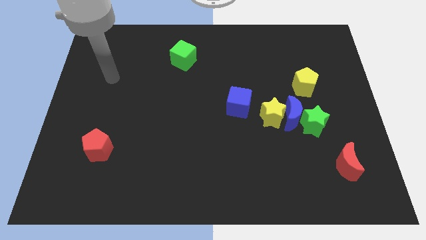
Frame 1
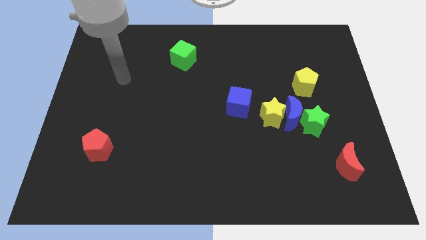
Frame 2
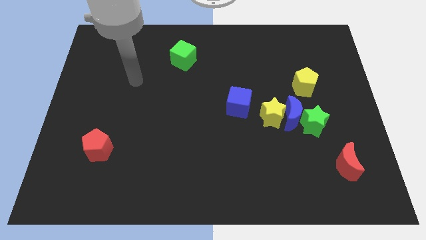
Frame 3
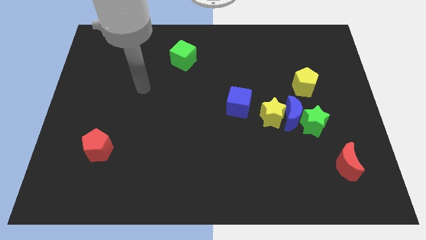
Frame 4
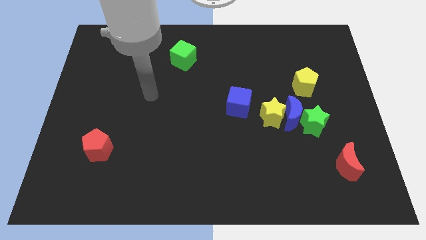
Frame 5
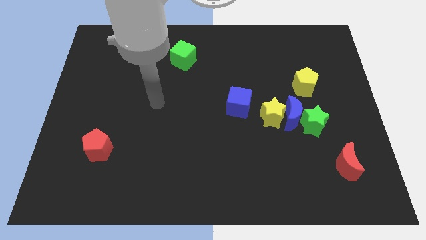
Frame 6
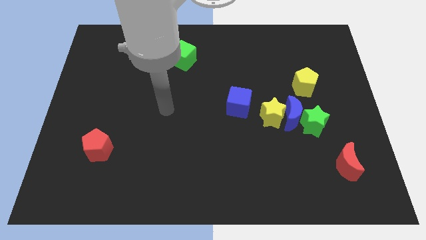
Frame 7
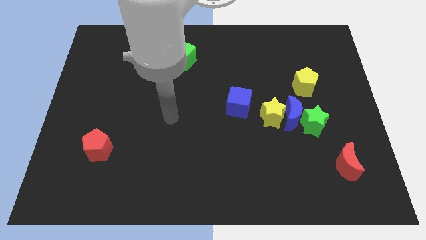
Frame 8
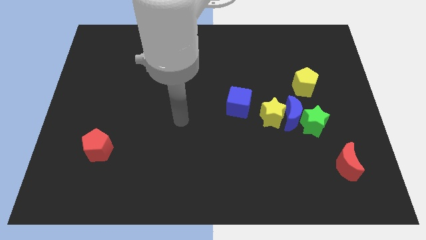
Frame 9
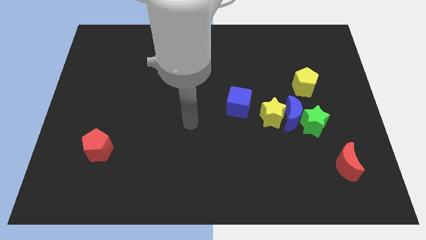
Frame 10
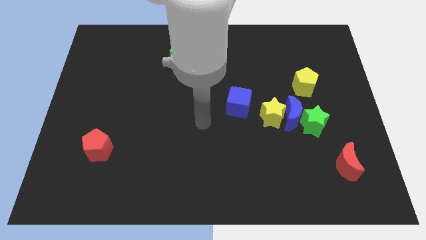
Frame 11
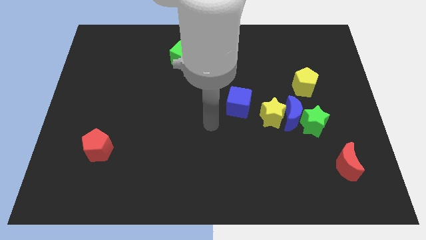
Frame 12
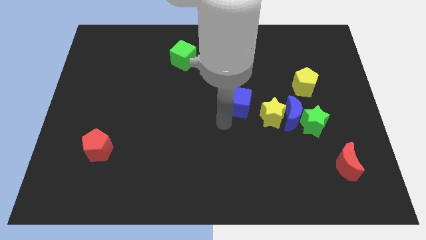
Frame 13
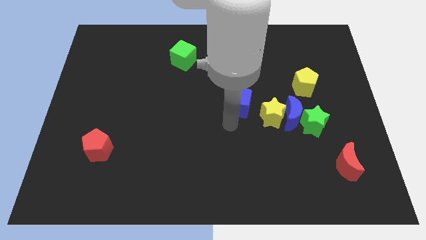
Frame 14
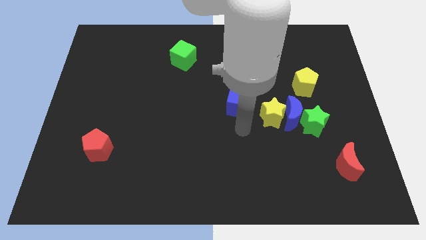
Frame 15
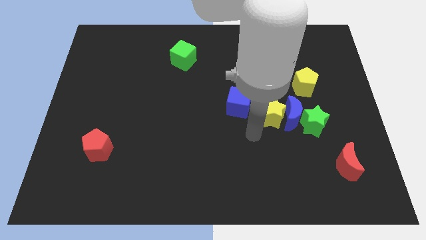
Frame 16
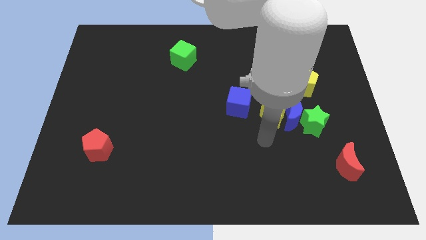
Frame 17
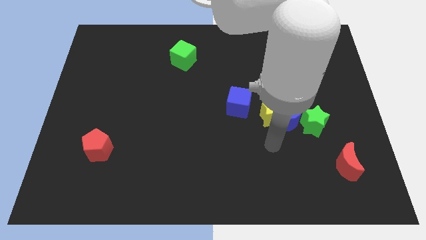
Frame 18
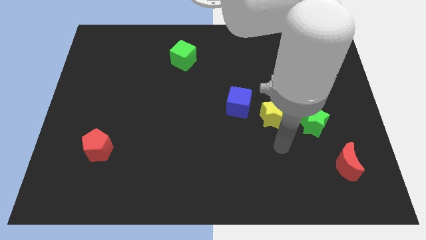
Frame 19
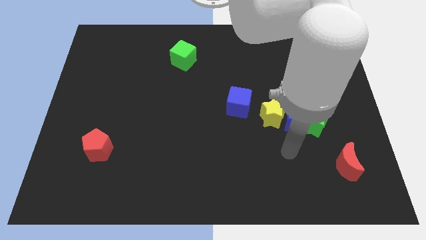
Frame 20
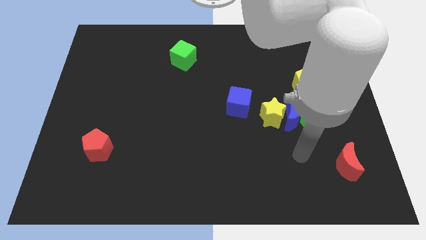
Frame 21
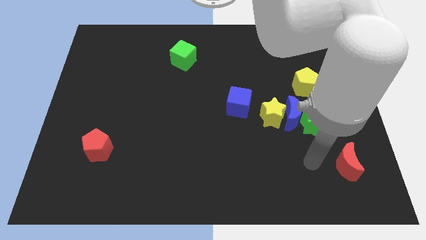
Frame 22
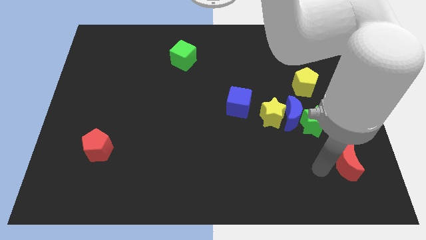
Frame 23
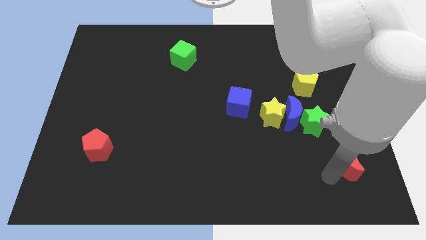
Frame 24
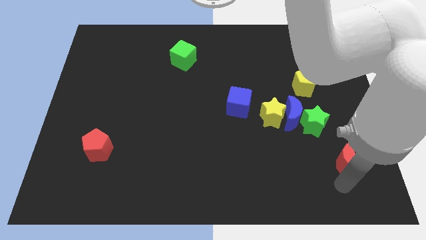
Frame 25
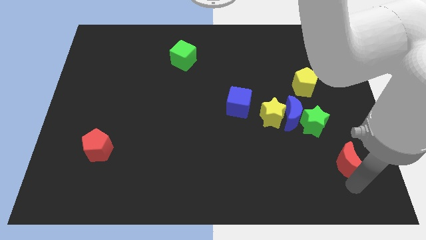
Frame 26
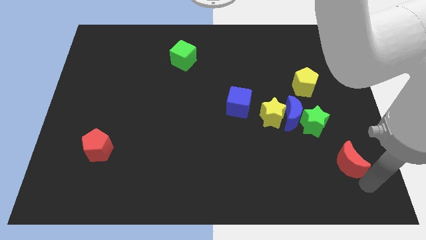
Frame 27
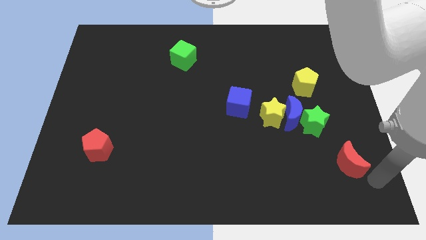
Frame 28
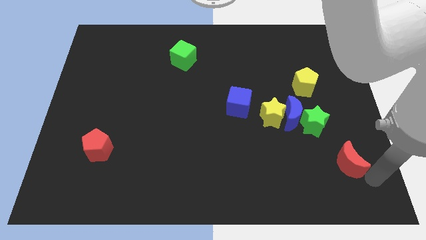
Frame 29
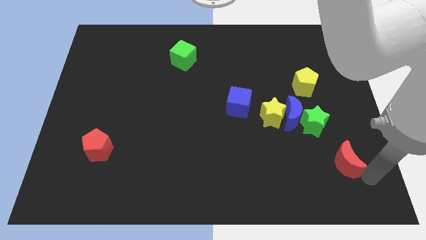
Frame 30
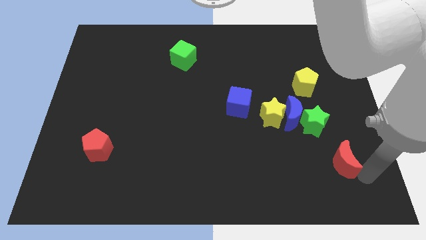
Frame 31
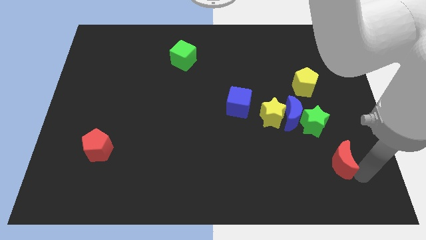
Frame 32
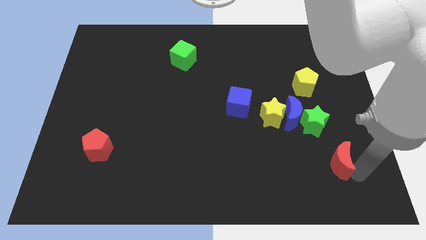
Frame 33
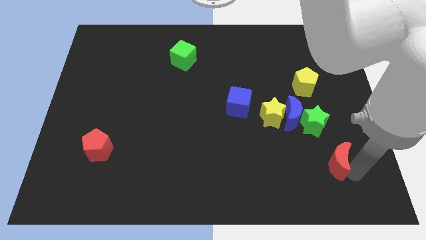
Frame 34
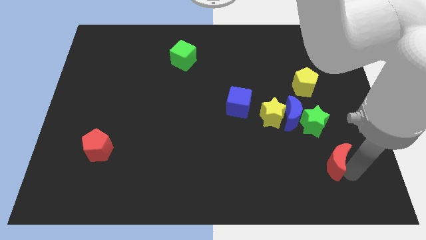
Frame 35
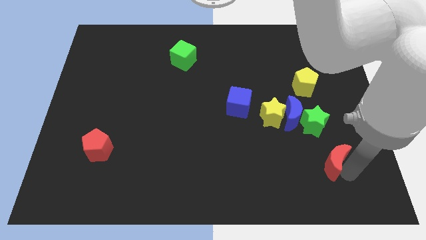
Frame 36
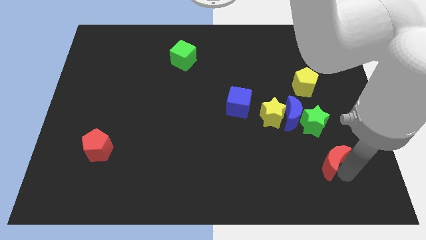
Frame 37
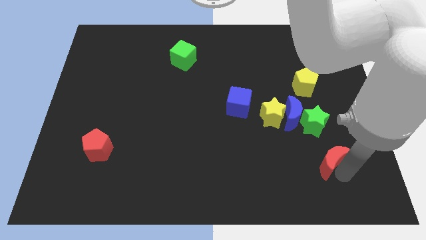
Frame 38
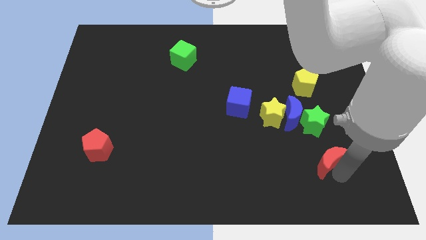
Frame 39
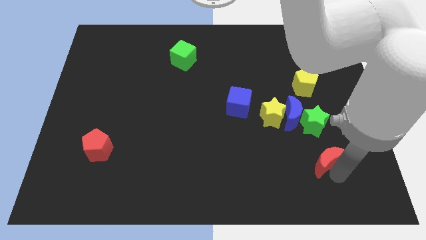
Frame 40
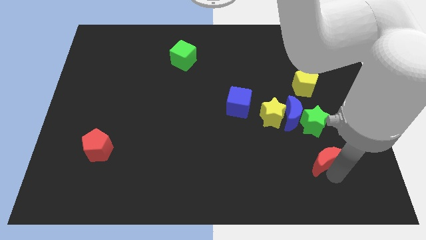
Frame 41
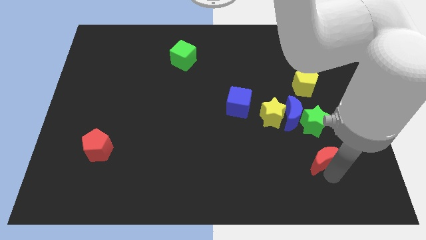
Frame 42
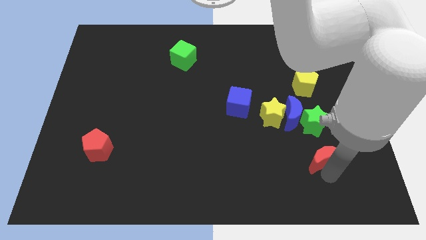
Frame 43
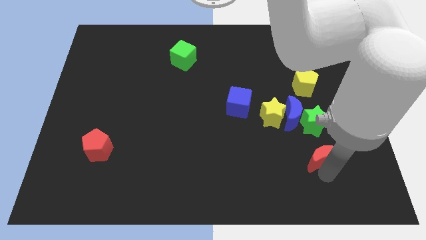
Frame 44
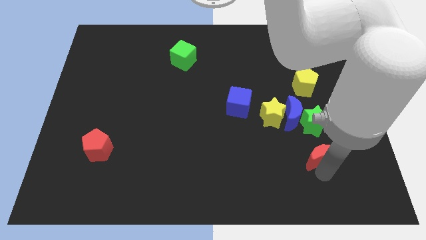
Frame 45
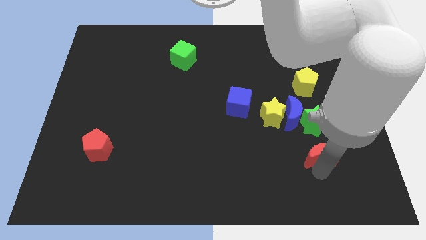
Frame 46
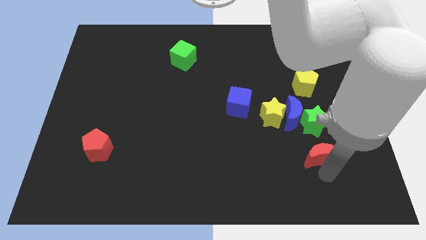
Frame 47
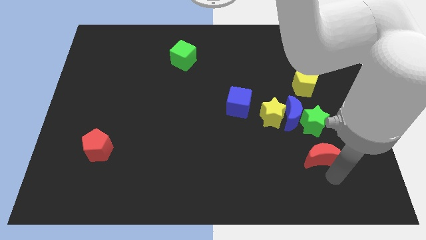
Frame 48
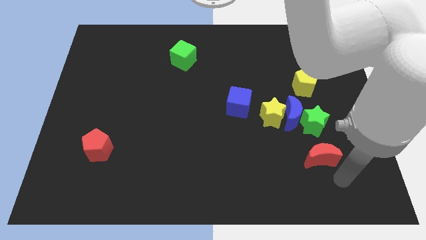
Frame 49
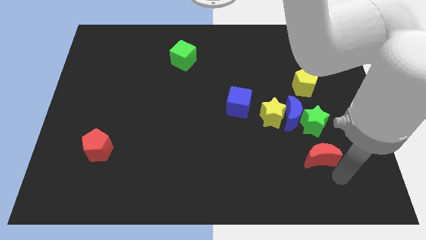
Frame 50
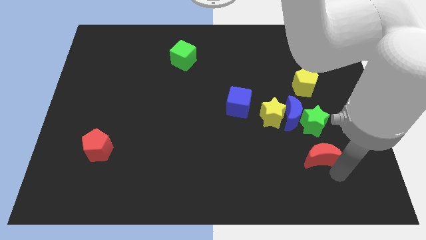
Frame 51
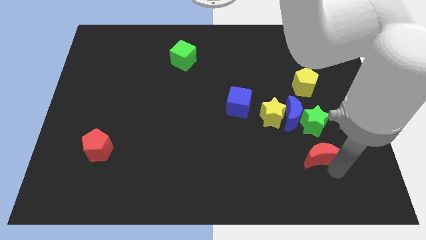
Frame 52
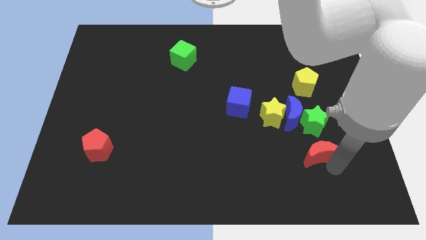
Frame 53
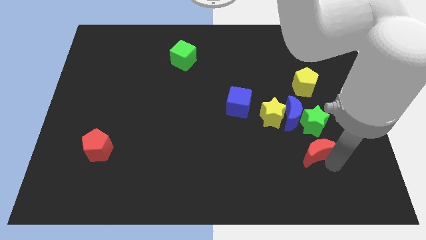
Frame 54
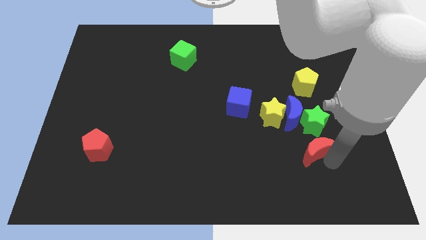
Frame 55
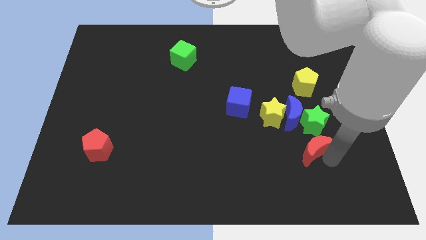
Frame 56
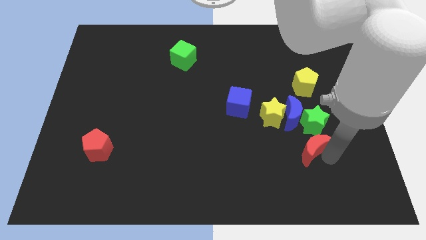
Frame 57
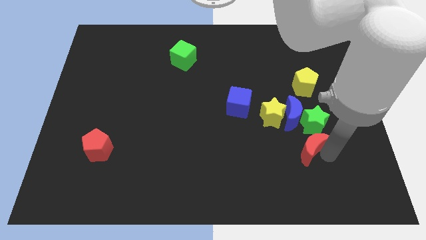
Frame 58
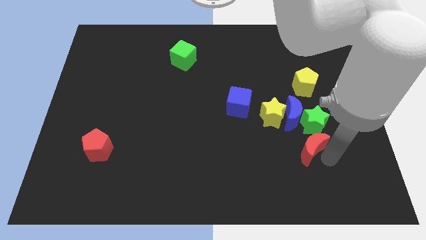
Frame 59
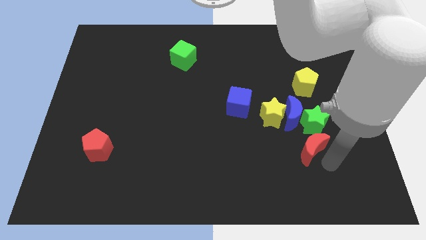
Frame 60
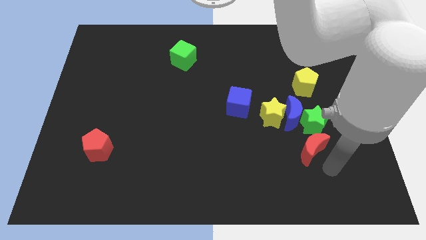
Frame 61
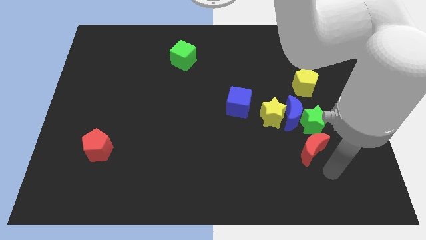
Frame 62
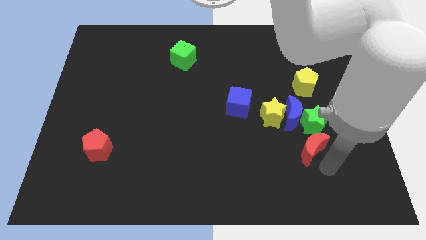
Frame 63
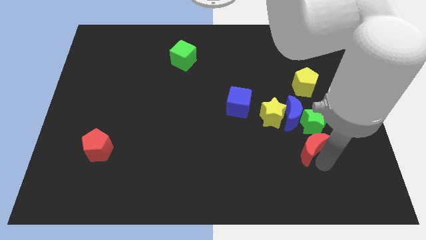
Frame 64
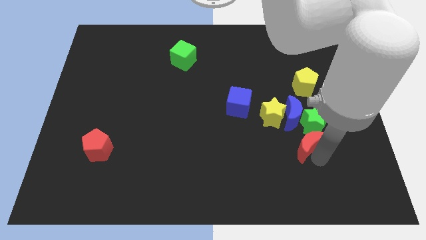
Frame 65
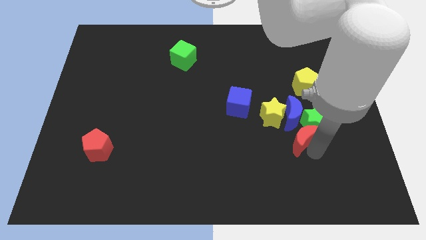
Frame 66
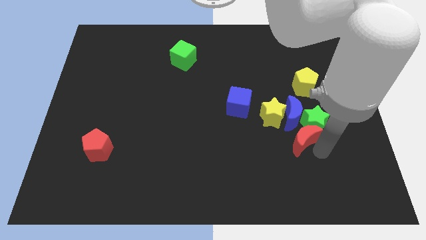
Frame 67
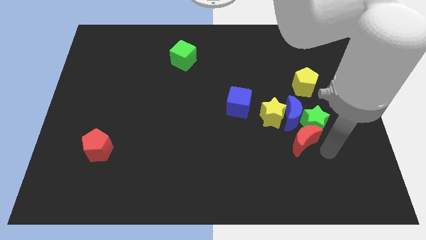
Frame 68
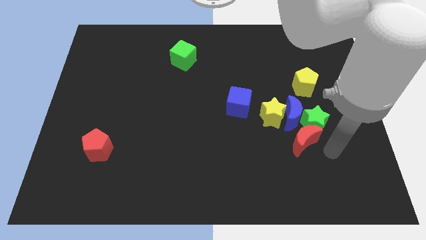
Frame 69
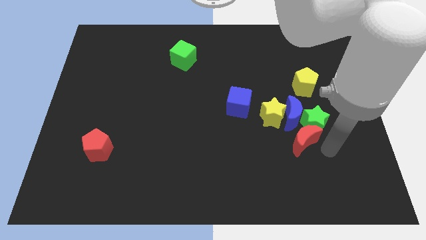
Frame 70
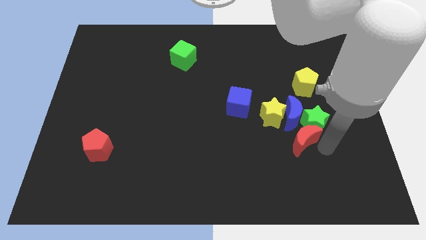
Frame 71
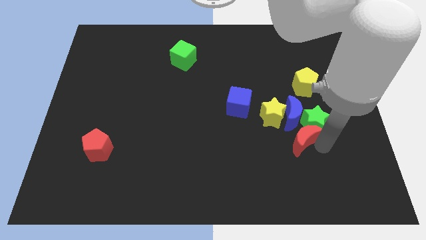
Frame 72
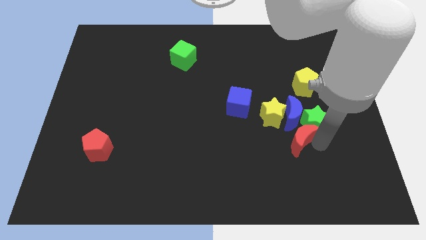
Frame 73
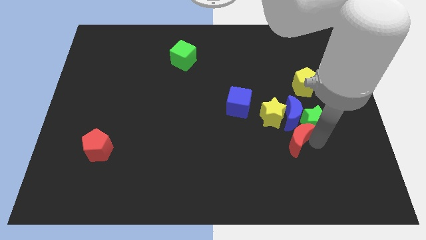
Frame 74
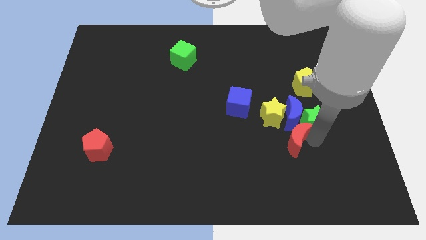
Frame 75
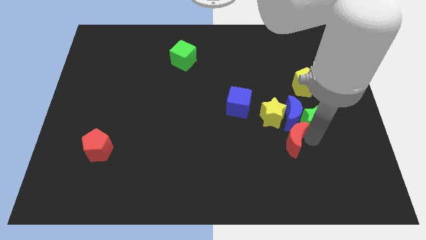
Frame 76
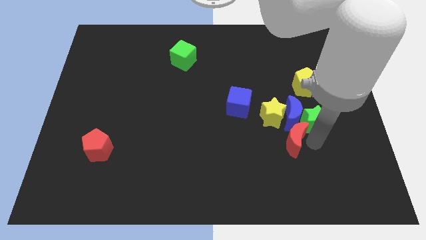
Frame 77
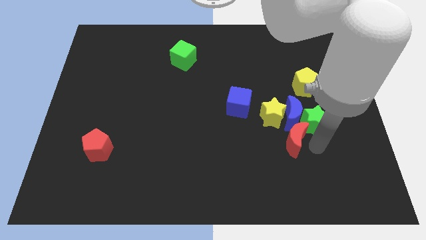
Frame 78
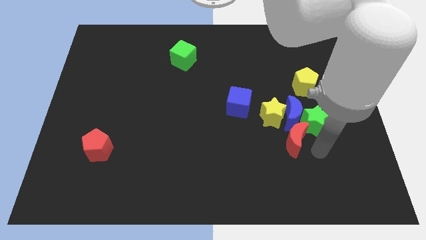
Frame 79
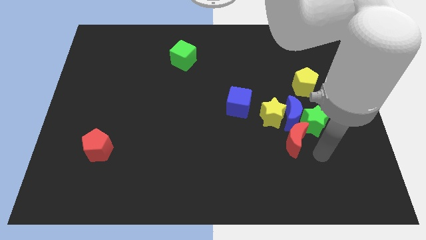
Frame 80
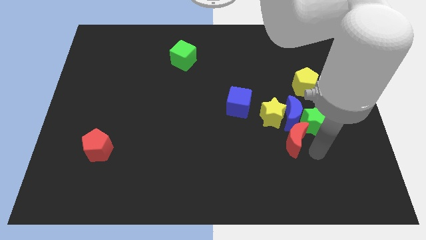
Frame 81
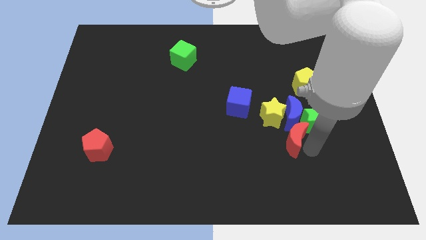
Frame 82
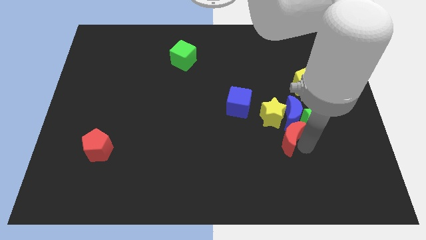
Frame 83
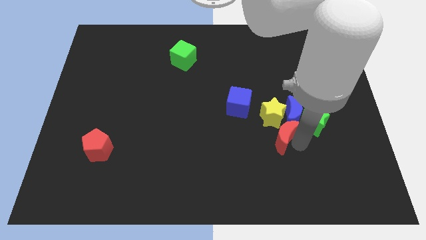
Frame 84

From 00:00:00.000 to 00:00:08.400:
slide the red moon next to the yellow star
